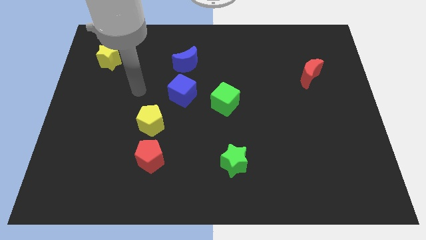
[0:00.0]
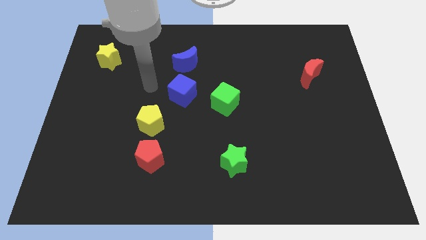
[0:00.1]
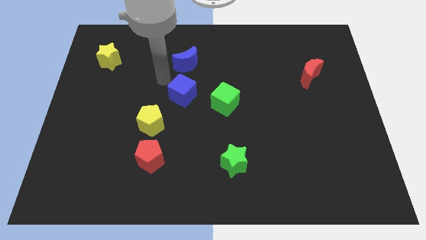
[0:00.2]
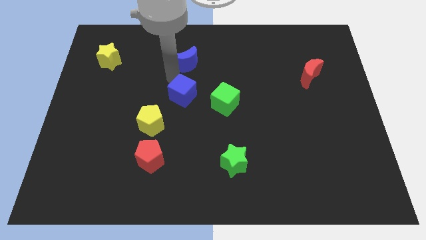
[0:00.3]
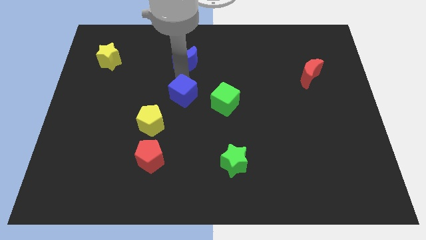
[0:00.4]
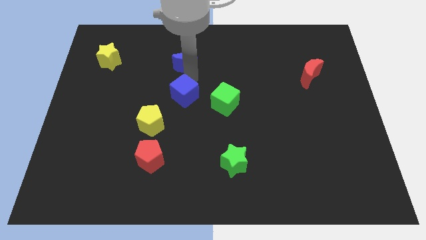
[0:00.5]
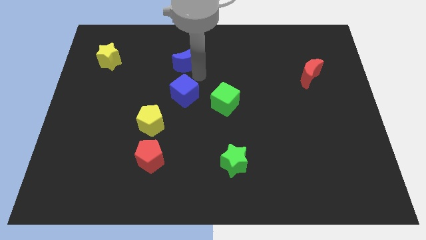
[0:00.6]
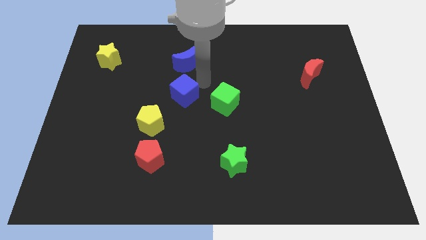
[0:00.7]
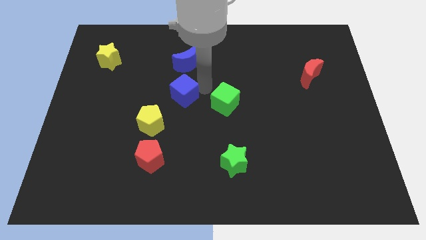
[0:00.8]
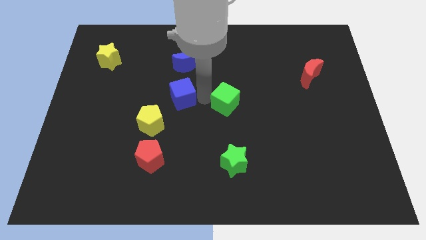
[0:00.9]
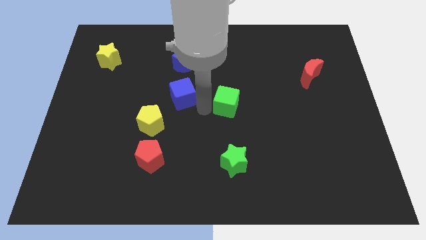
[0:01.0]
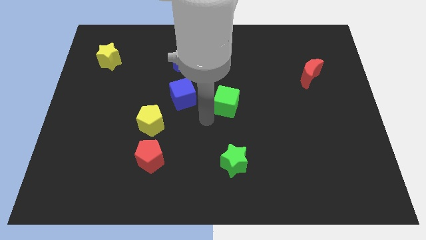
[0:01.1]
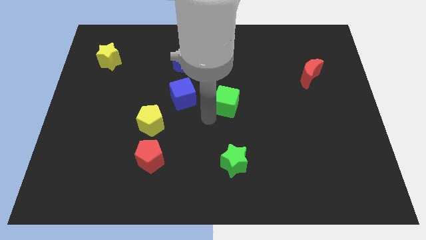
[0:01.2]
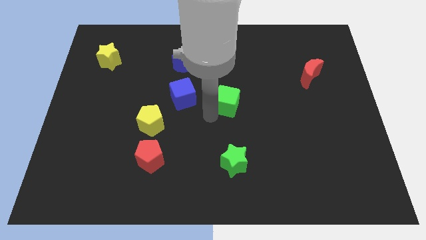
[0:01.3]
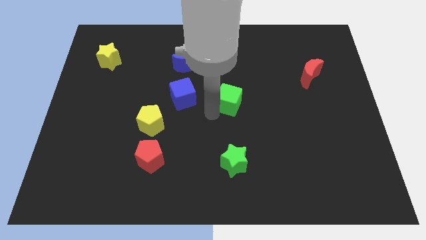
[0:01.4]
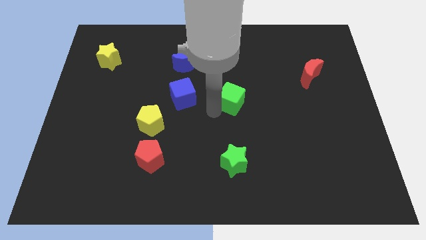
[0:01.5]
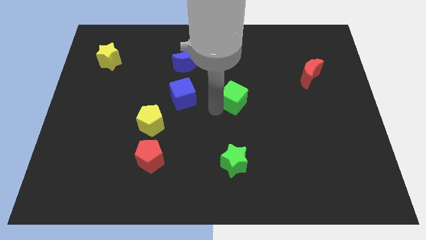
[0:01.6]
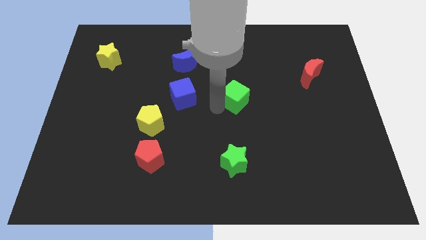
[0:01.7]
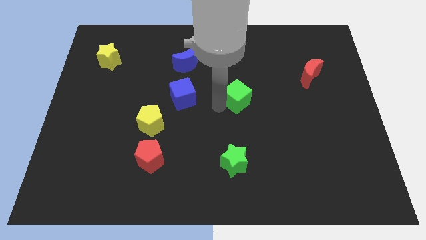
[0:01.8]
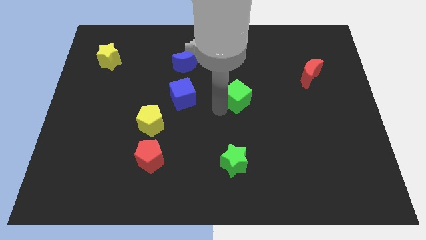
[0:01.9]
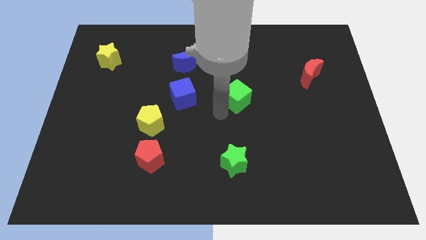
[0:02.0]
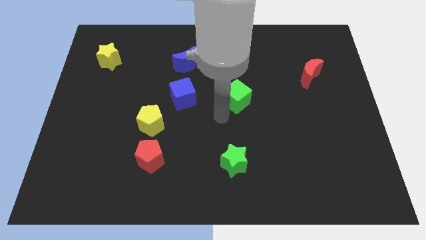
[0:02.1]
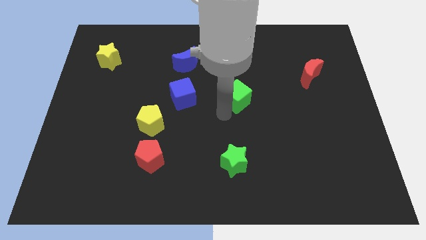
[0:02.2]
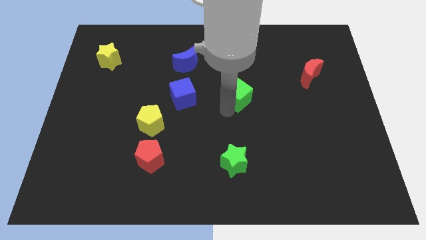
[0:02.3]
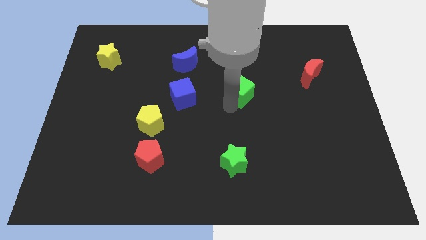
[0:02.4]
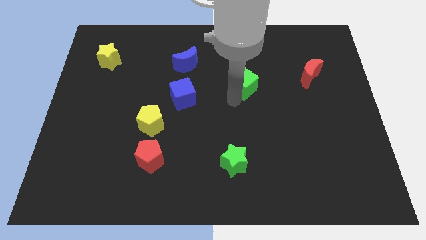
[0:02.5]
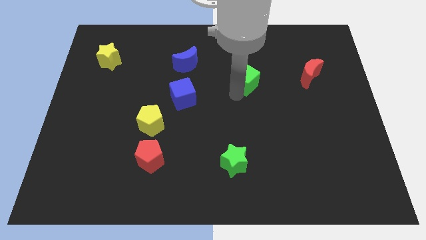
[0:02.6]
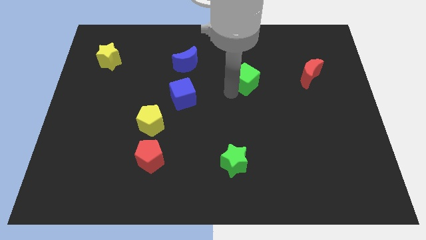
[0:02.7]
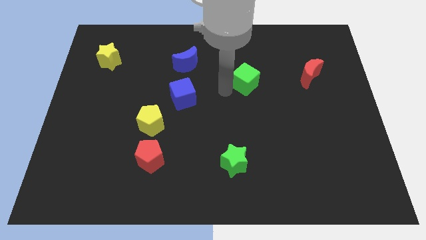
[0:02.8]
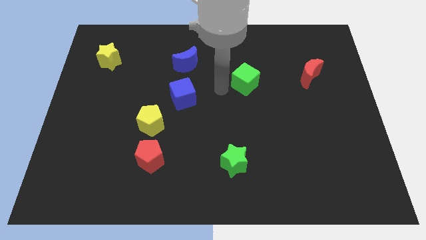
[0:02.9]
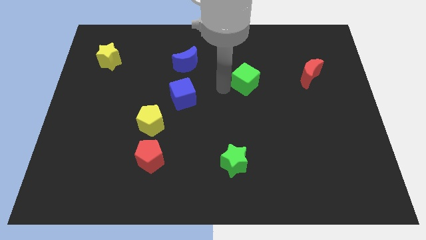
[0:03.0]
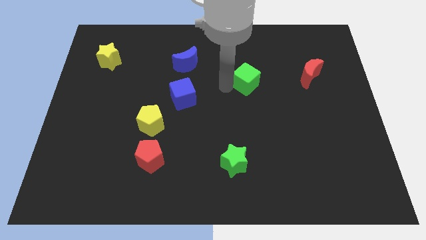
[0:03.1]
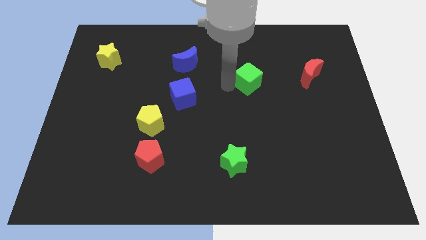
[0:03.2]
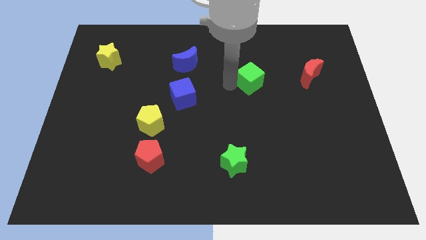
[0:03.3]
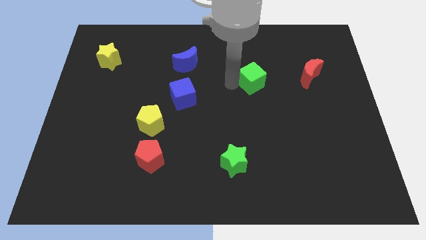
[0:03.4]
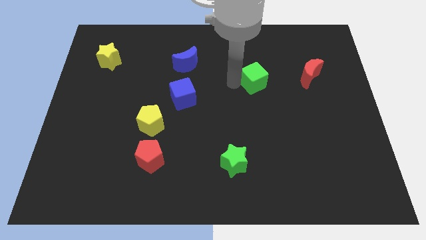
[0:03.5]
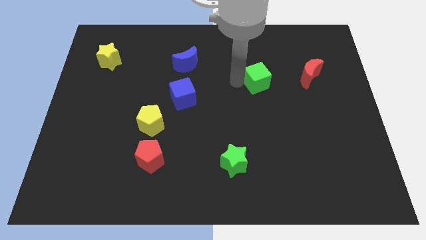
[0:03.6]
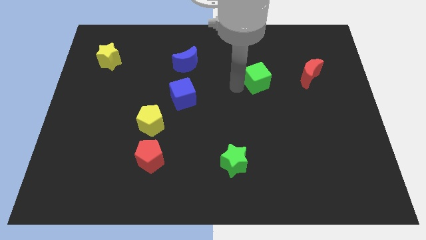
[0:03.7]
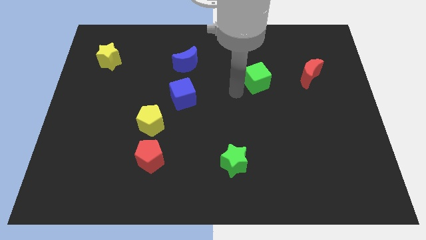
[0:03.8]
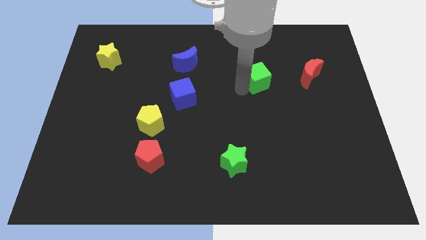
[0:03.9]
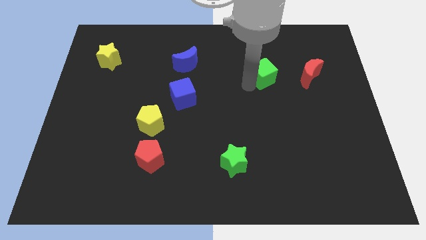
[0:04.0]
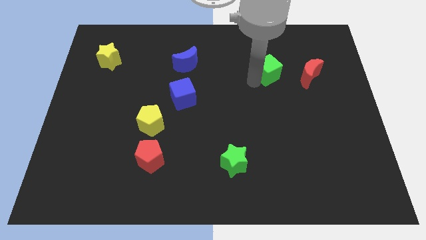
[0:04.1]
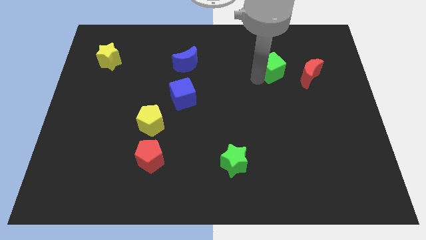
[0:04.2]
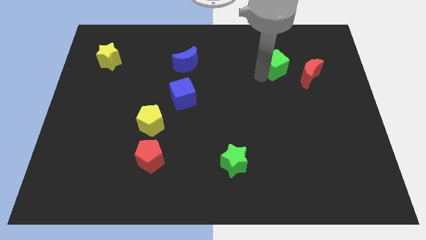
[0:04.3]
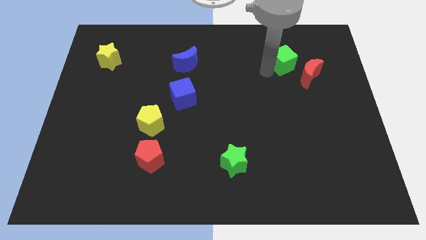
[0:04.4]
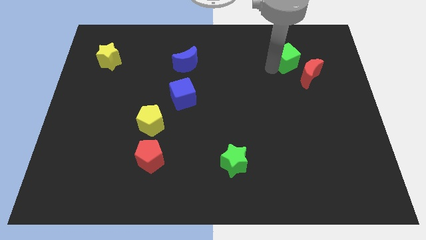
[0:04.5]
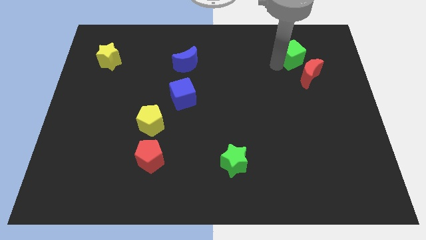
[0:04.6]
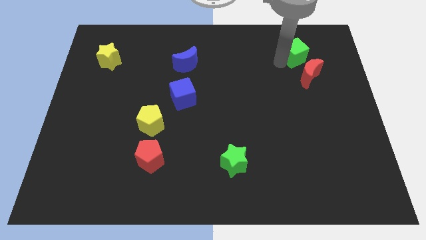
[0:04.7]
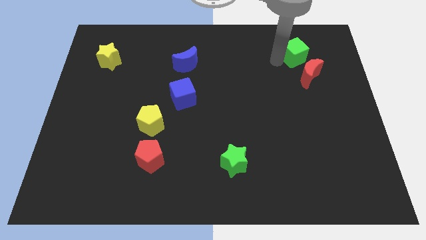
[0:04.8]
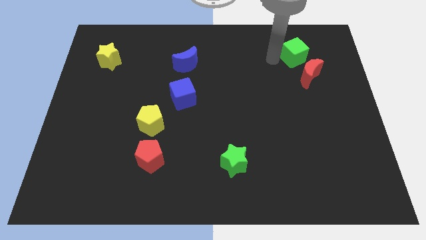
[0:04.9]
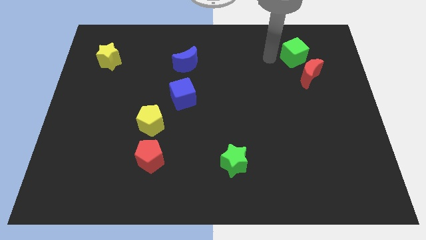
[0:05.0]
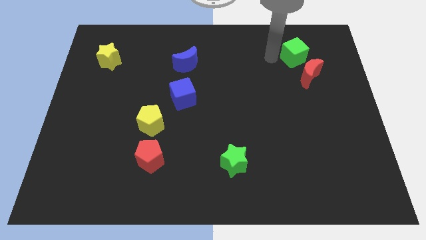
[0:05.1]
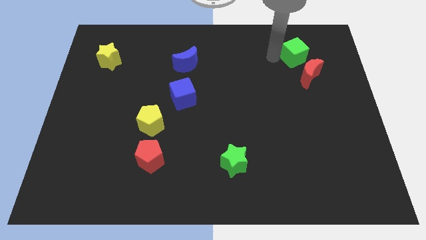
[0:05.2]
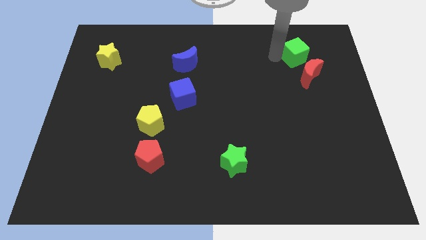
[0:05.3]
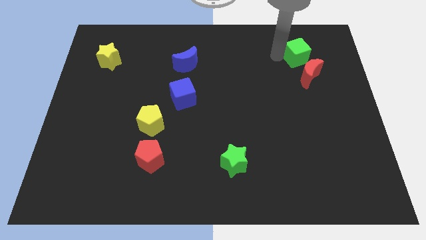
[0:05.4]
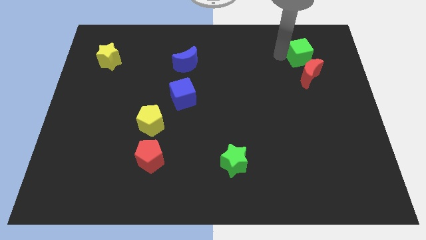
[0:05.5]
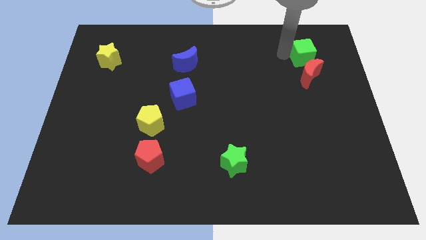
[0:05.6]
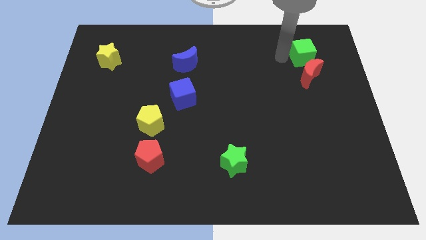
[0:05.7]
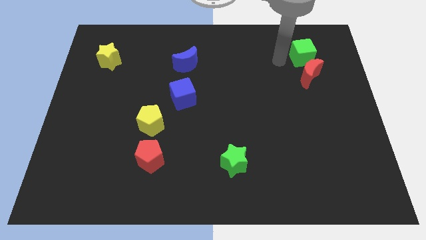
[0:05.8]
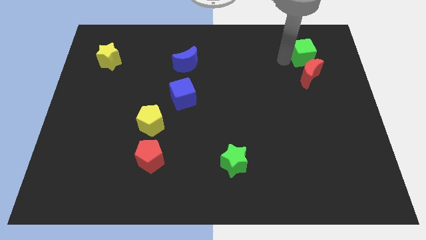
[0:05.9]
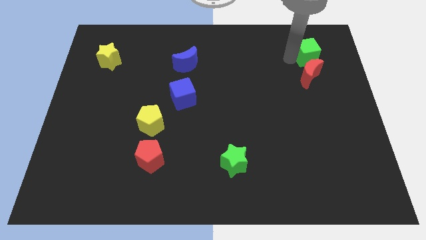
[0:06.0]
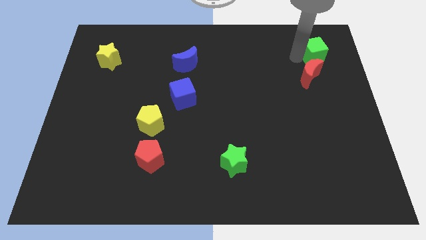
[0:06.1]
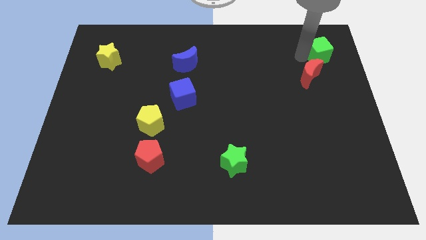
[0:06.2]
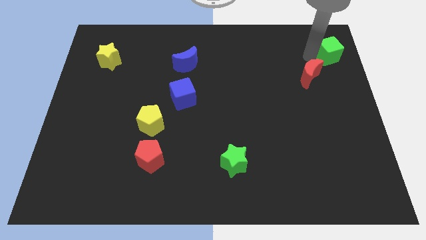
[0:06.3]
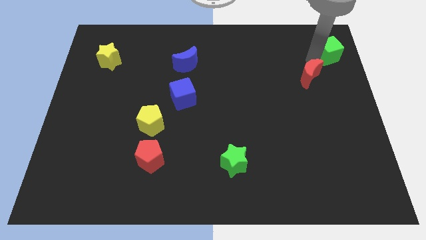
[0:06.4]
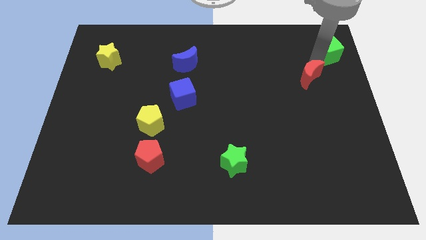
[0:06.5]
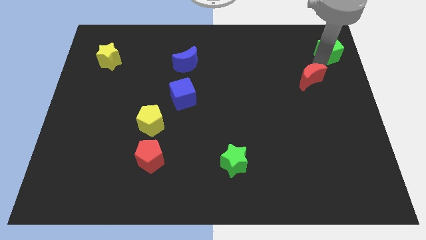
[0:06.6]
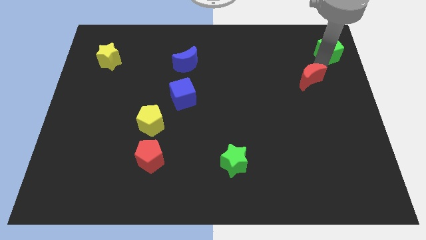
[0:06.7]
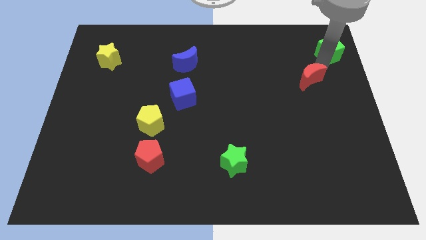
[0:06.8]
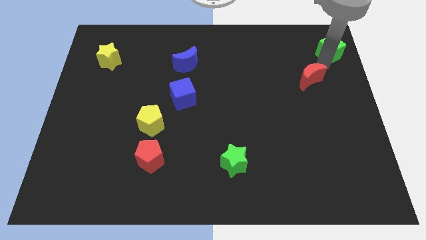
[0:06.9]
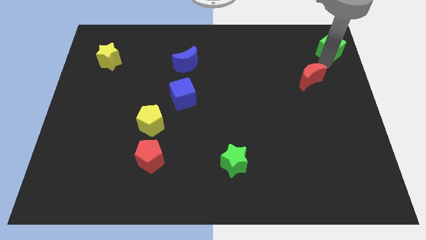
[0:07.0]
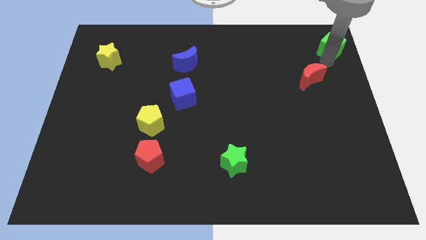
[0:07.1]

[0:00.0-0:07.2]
put the green cube to the top right of the board
